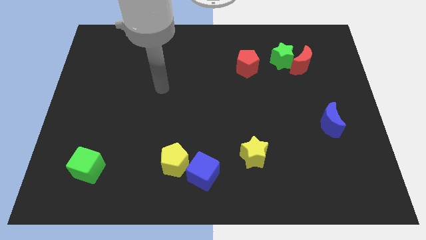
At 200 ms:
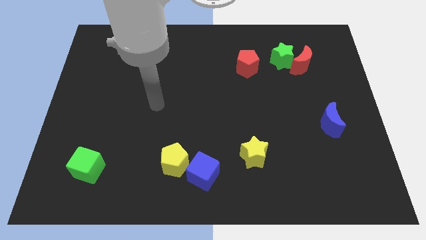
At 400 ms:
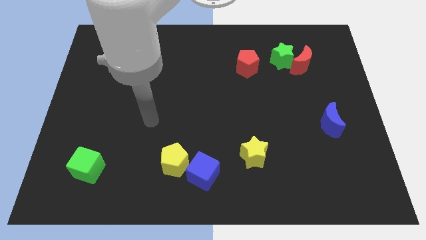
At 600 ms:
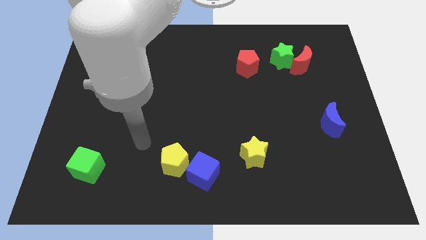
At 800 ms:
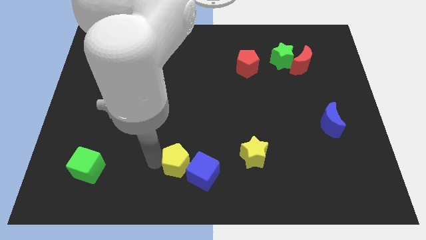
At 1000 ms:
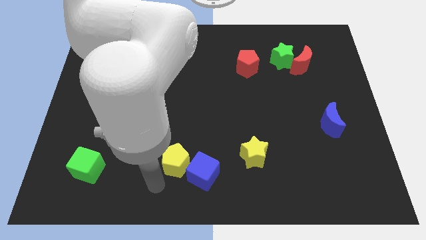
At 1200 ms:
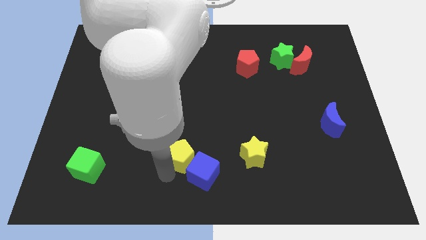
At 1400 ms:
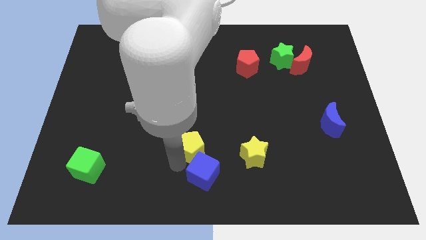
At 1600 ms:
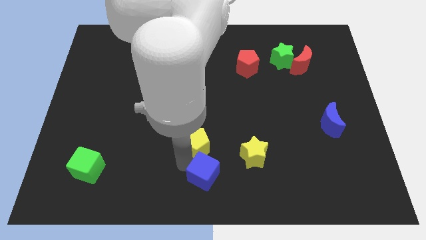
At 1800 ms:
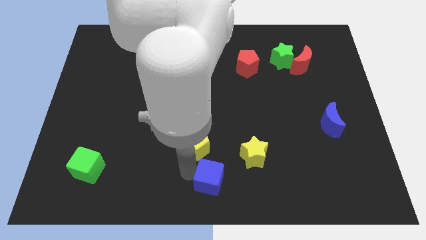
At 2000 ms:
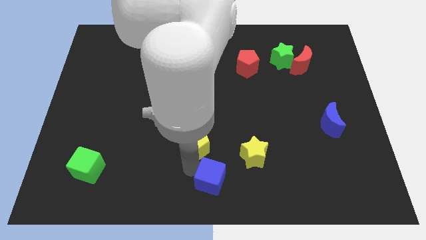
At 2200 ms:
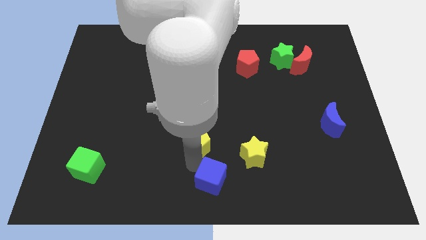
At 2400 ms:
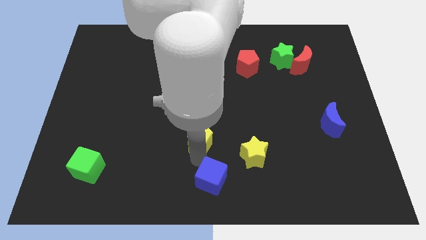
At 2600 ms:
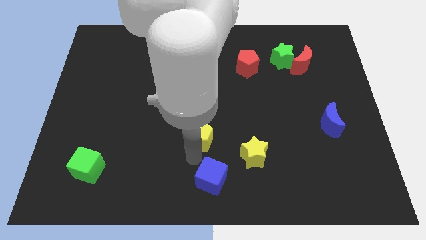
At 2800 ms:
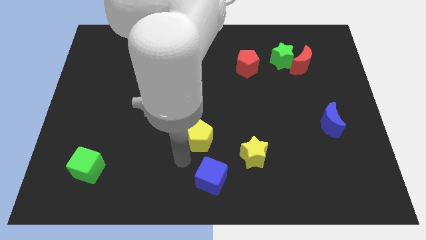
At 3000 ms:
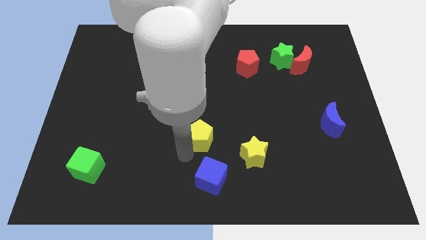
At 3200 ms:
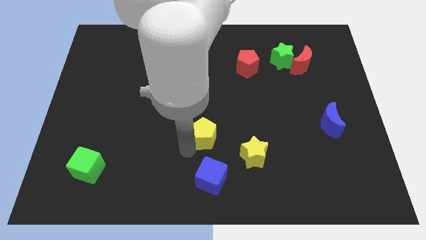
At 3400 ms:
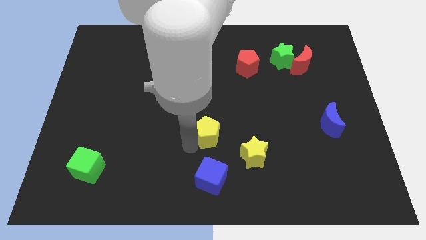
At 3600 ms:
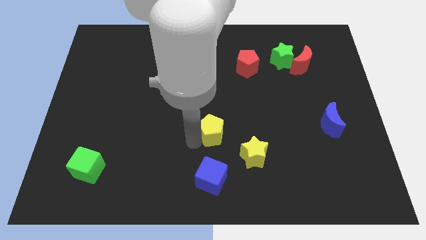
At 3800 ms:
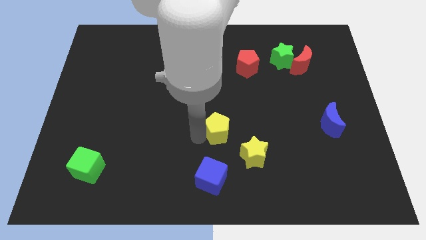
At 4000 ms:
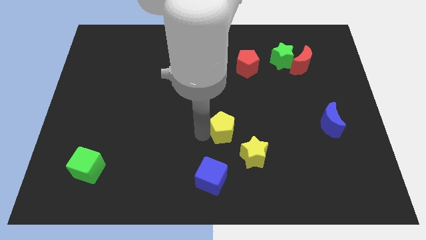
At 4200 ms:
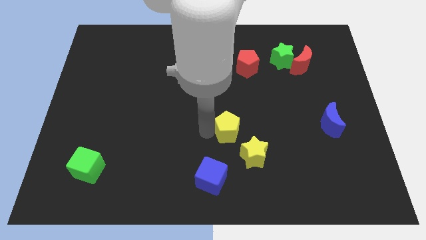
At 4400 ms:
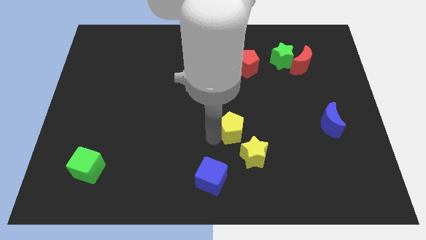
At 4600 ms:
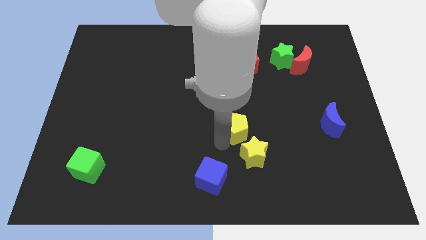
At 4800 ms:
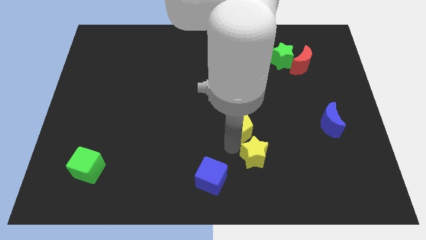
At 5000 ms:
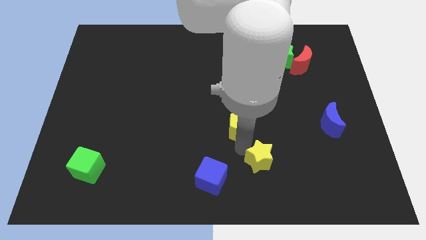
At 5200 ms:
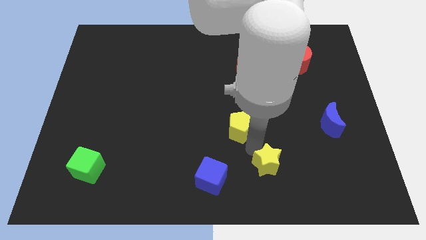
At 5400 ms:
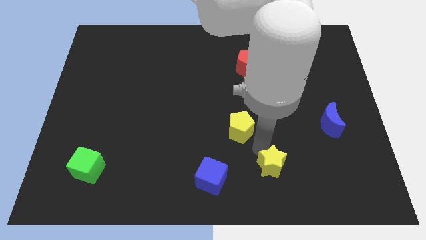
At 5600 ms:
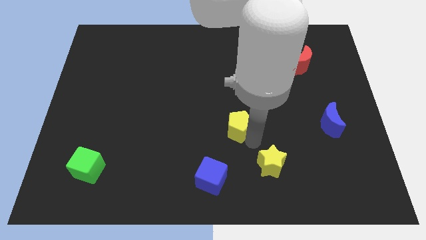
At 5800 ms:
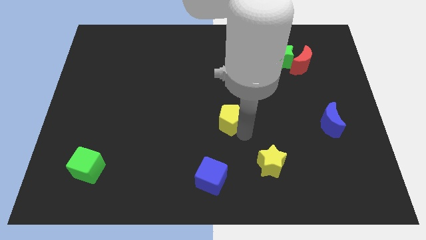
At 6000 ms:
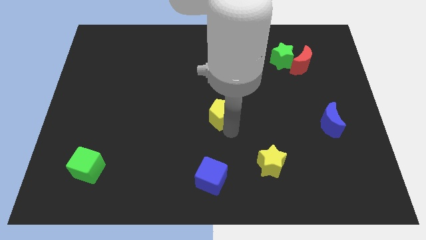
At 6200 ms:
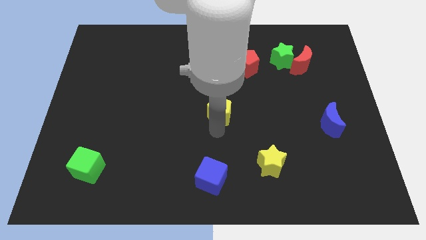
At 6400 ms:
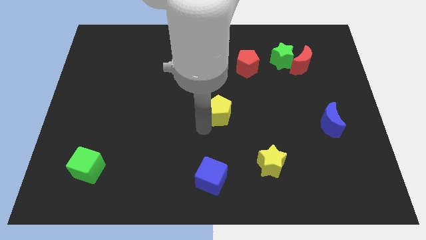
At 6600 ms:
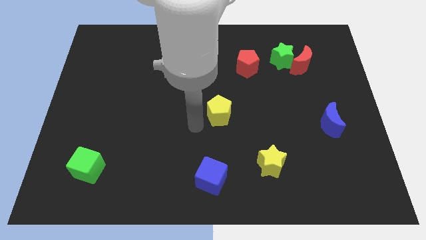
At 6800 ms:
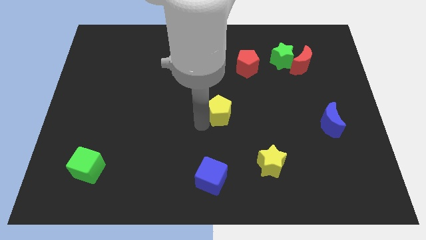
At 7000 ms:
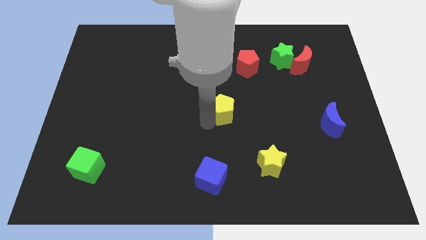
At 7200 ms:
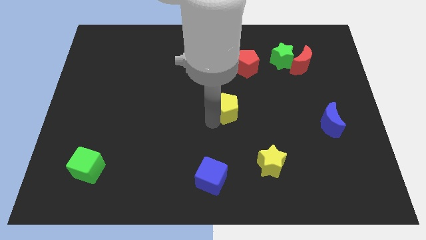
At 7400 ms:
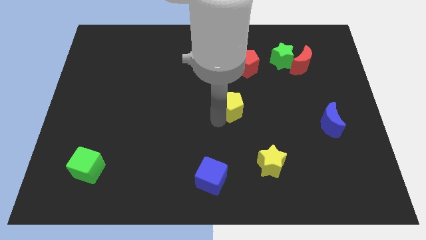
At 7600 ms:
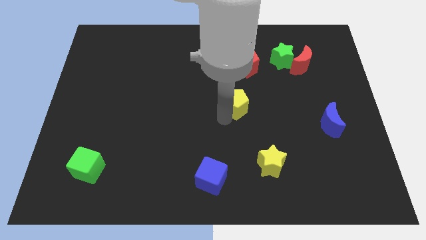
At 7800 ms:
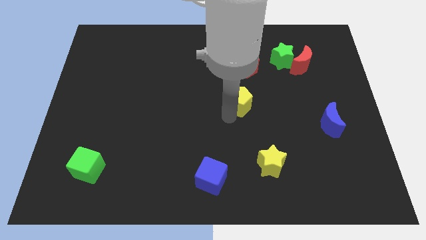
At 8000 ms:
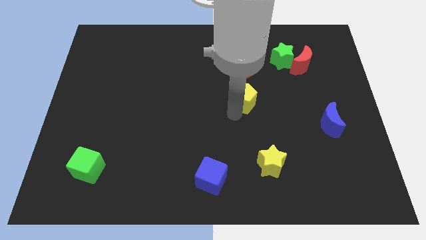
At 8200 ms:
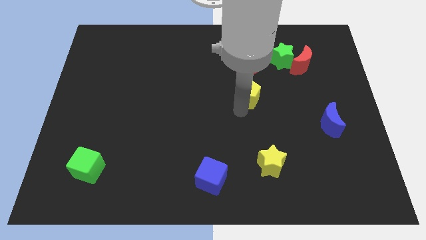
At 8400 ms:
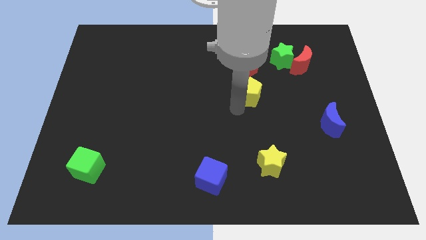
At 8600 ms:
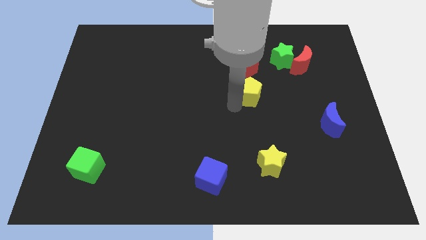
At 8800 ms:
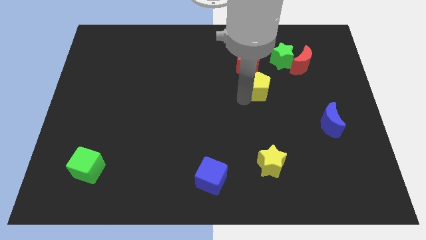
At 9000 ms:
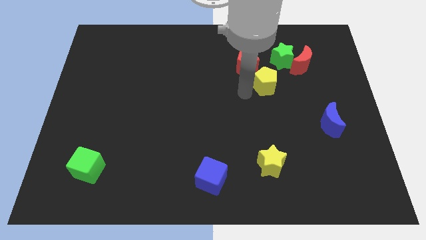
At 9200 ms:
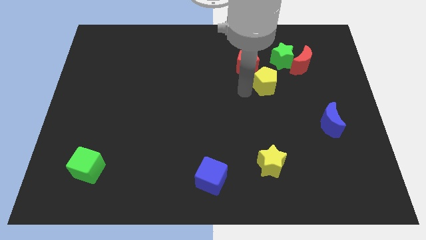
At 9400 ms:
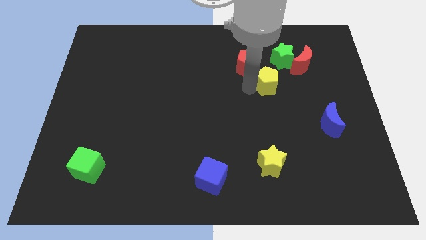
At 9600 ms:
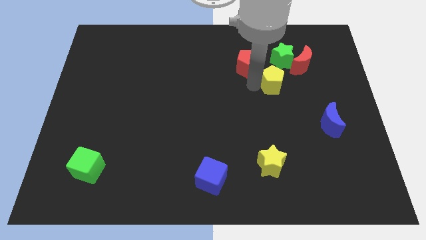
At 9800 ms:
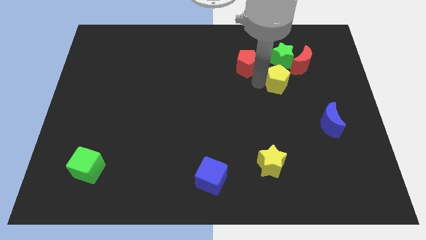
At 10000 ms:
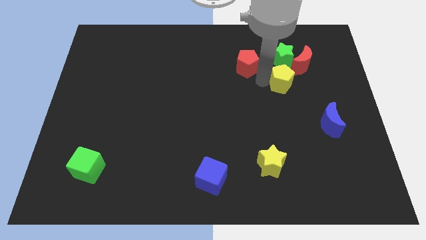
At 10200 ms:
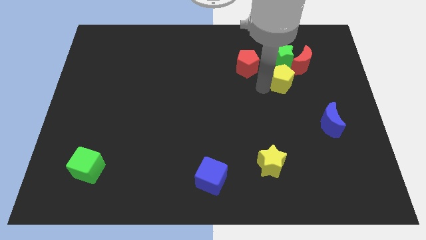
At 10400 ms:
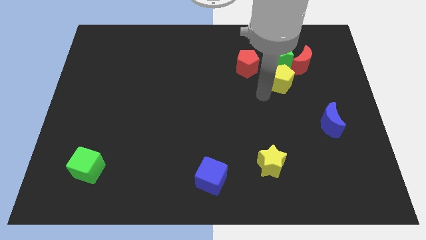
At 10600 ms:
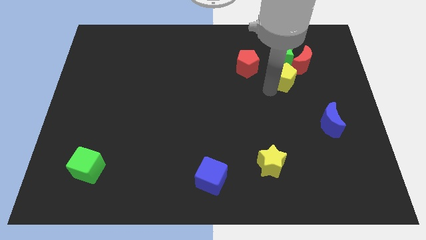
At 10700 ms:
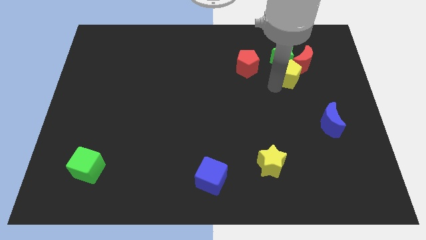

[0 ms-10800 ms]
put the yellow pentagon close to the red moon
